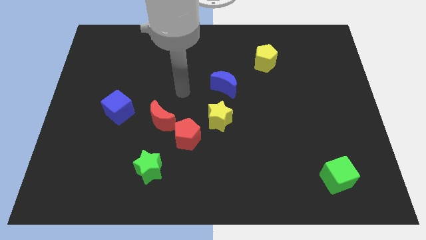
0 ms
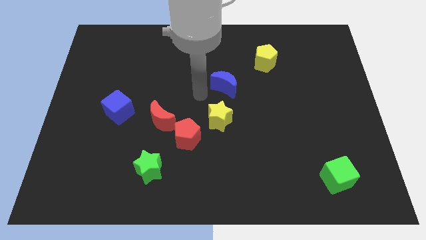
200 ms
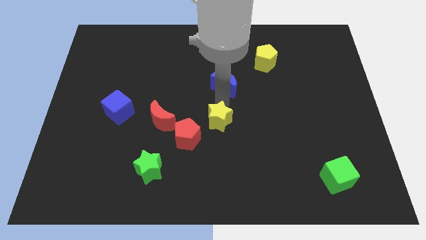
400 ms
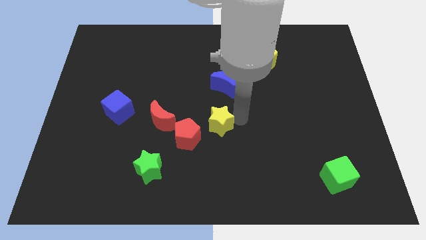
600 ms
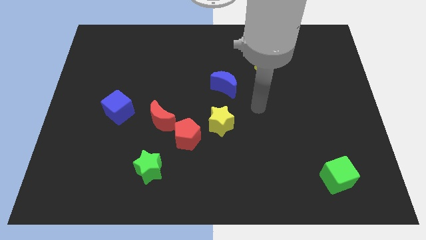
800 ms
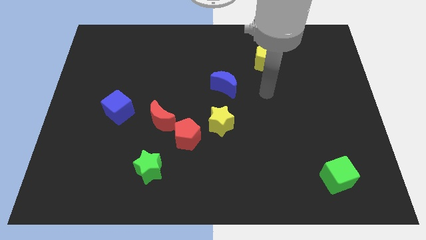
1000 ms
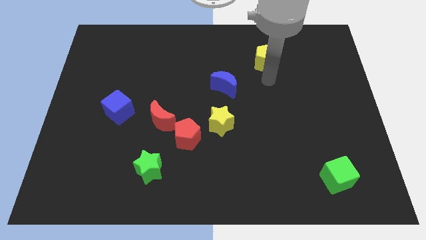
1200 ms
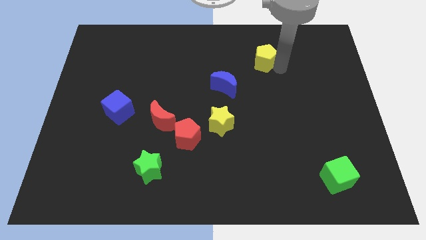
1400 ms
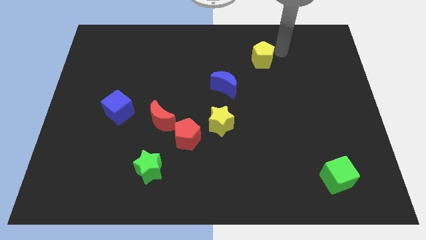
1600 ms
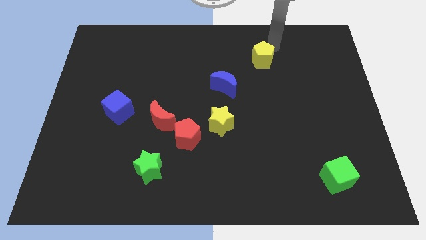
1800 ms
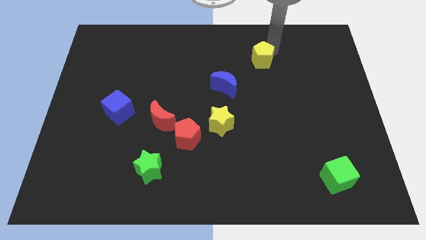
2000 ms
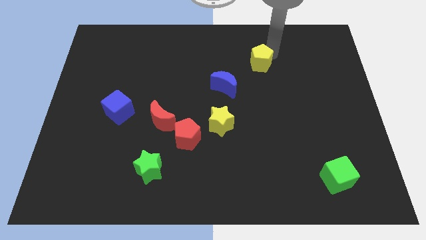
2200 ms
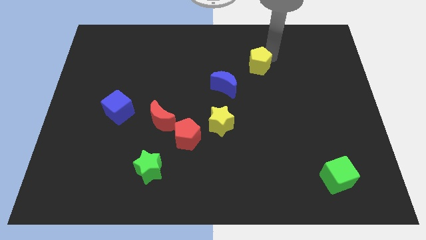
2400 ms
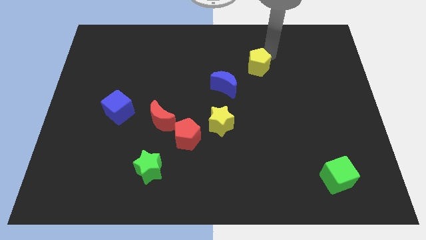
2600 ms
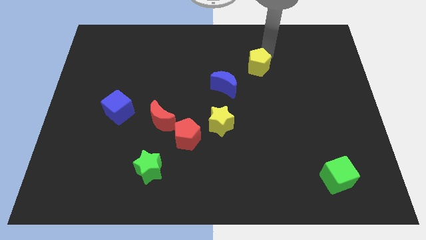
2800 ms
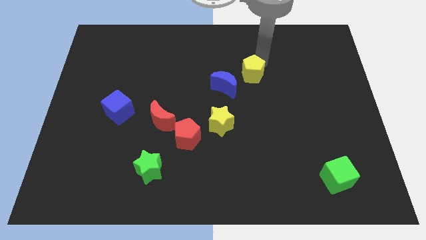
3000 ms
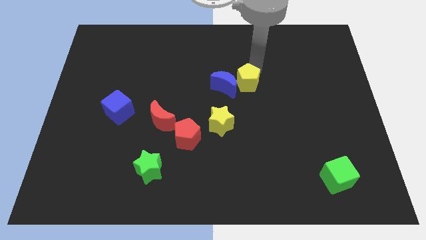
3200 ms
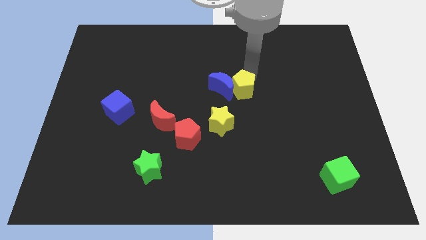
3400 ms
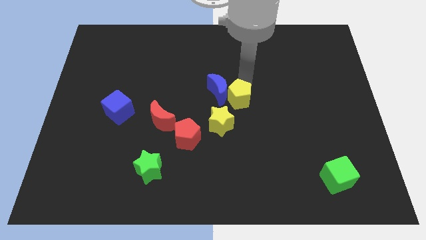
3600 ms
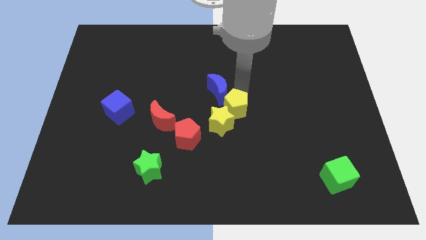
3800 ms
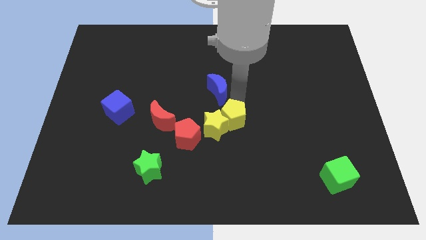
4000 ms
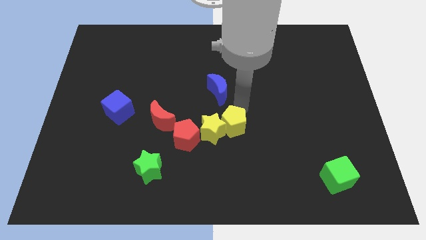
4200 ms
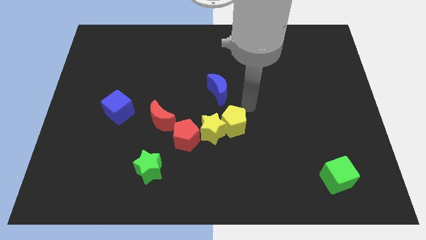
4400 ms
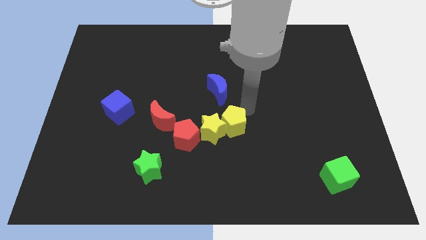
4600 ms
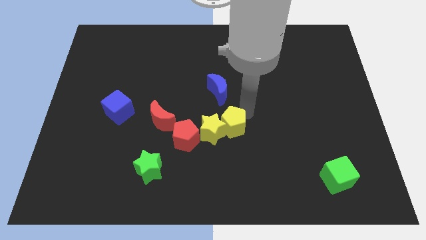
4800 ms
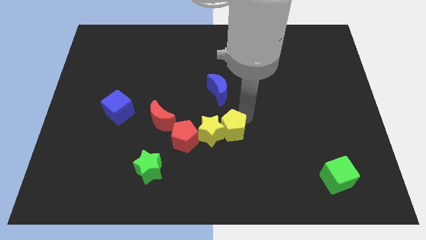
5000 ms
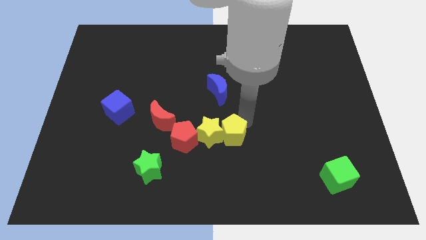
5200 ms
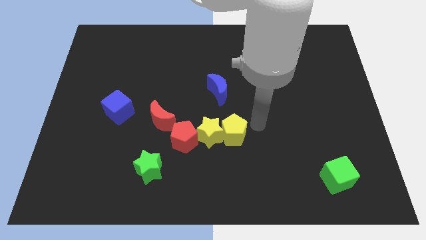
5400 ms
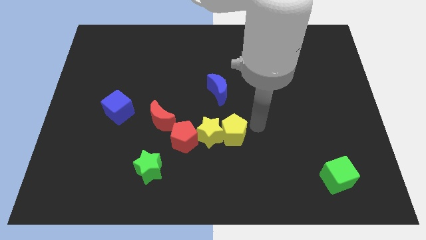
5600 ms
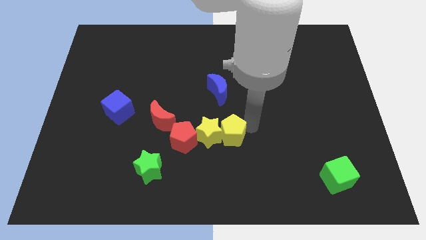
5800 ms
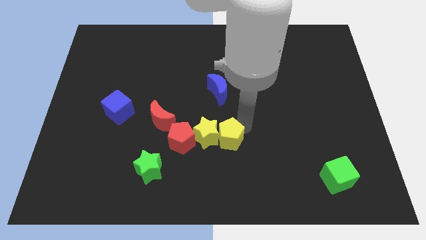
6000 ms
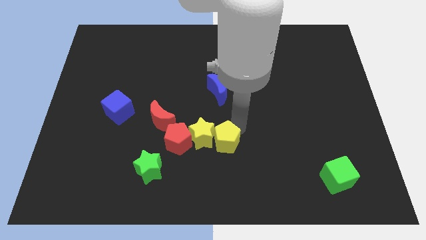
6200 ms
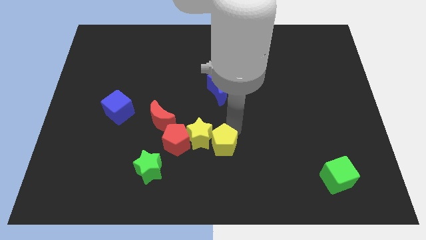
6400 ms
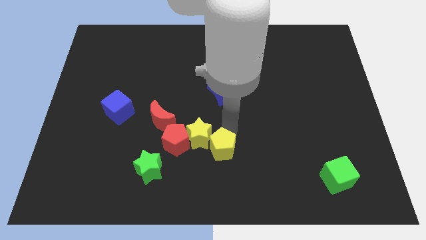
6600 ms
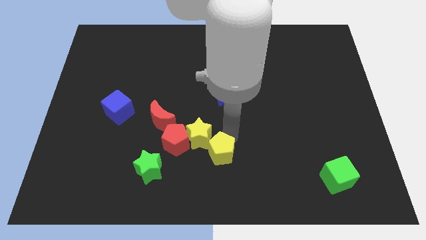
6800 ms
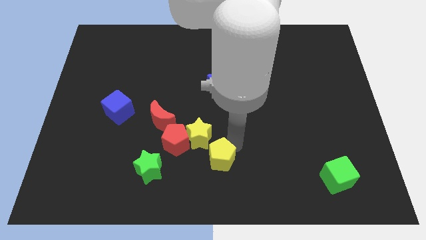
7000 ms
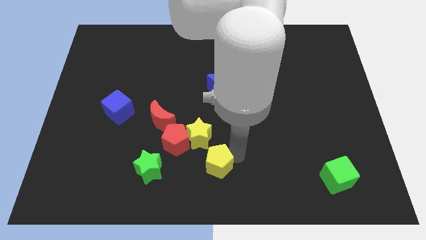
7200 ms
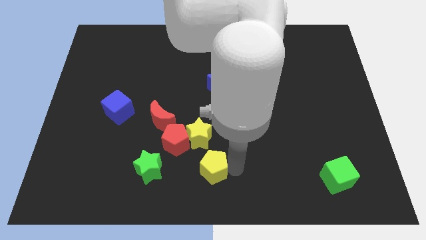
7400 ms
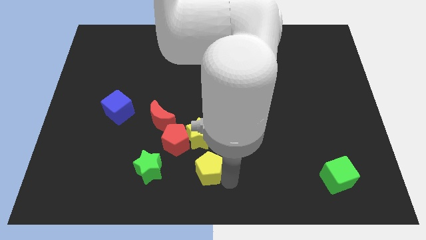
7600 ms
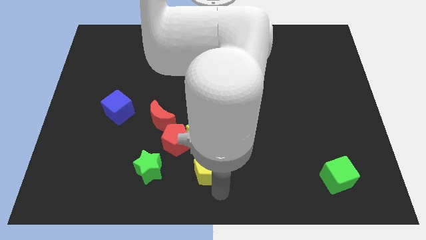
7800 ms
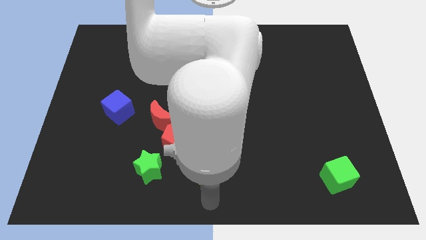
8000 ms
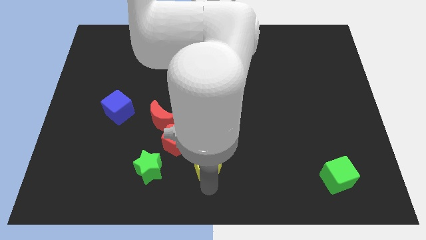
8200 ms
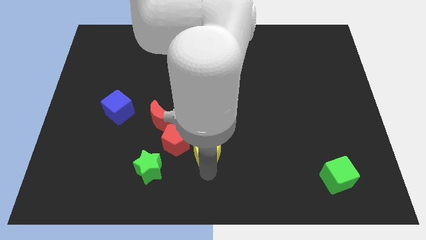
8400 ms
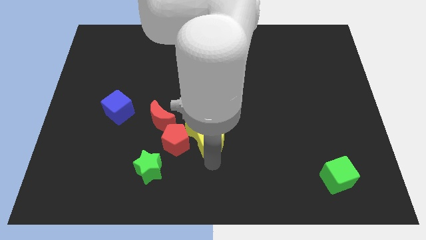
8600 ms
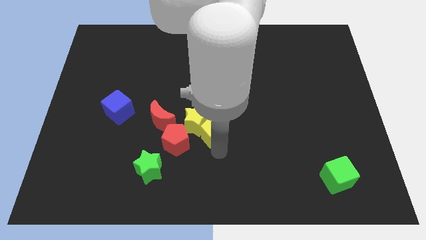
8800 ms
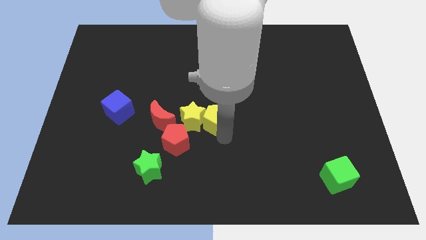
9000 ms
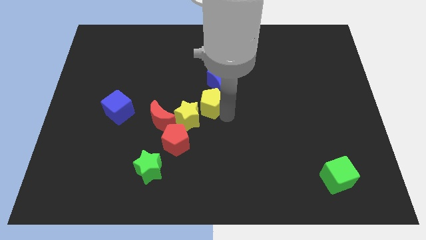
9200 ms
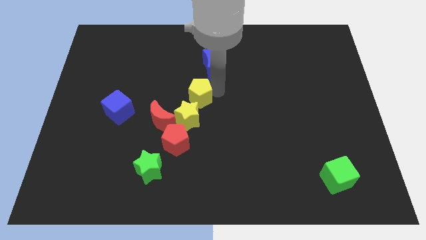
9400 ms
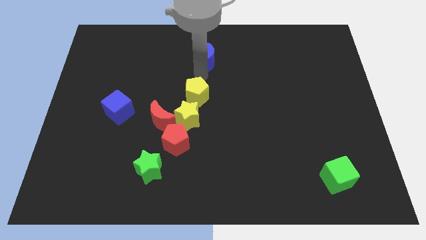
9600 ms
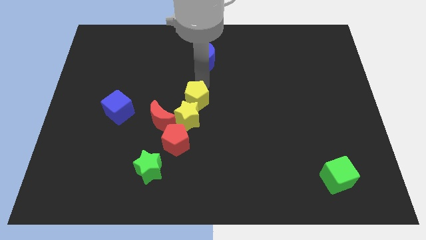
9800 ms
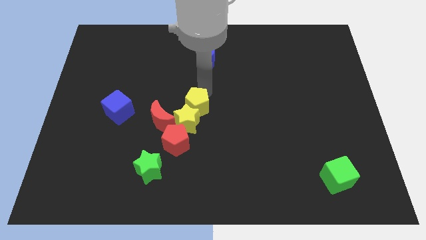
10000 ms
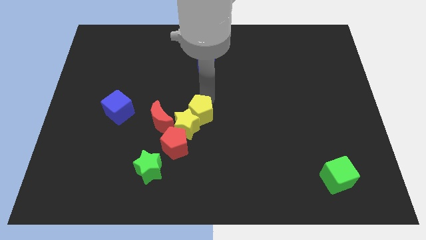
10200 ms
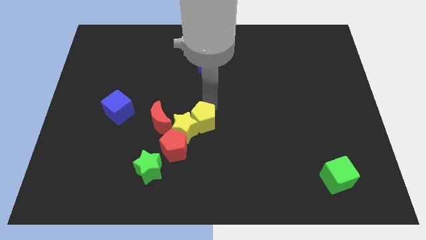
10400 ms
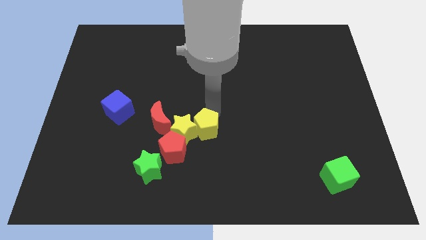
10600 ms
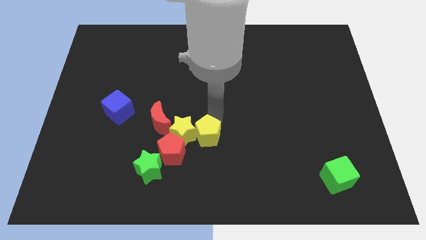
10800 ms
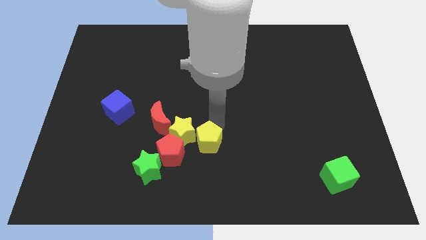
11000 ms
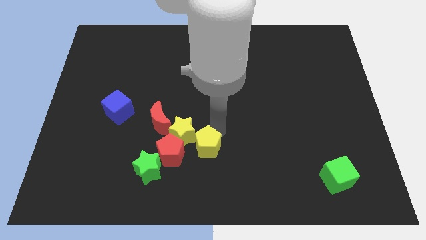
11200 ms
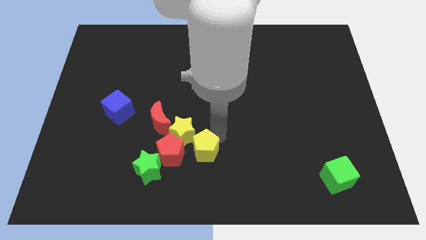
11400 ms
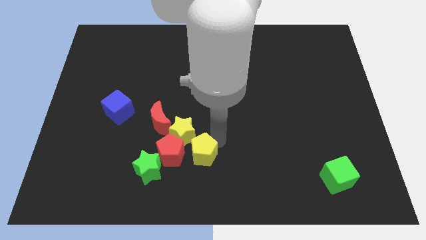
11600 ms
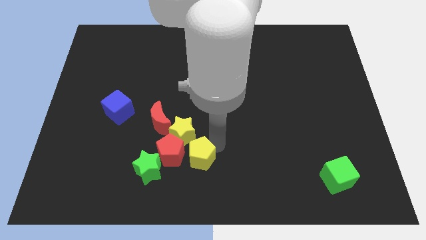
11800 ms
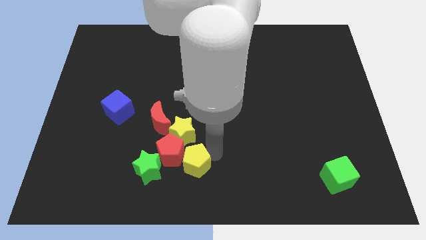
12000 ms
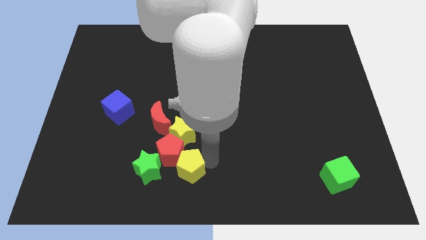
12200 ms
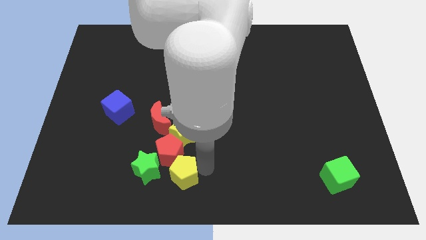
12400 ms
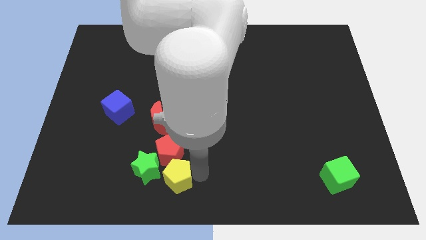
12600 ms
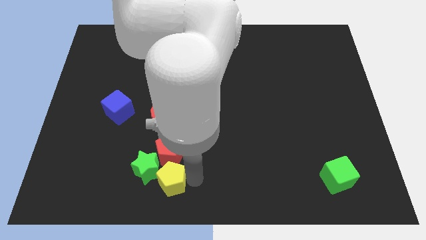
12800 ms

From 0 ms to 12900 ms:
slide the yellow pentagon close to the green star

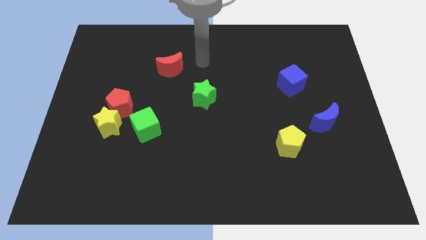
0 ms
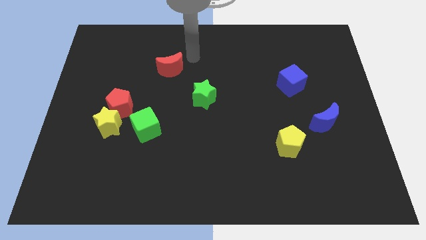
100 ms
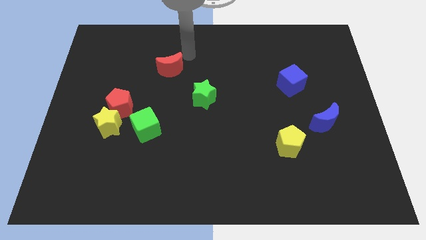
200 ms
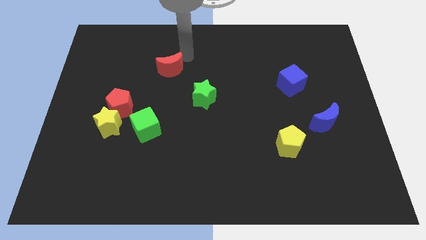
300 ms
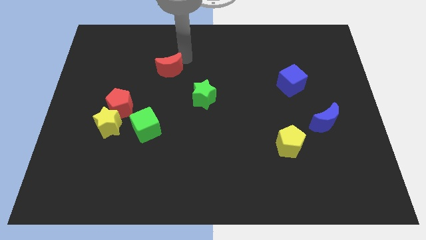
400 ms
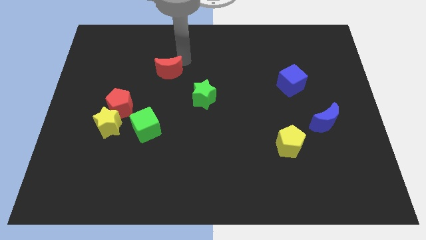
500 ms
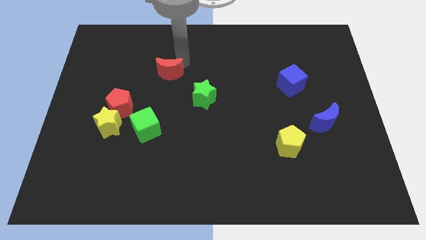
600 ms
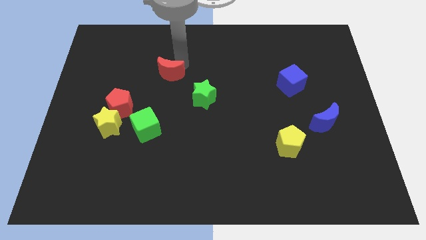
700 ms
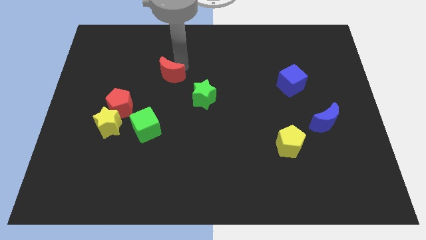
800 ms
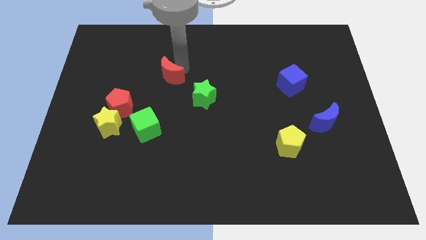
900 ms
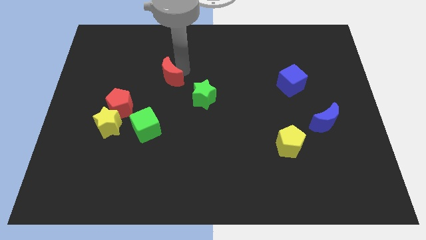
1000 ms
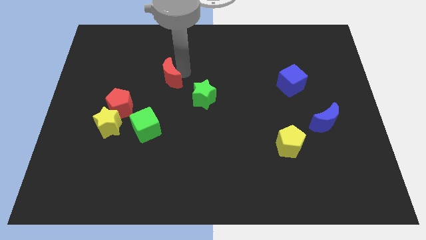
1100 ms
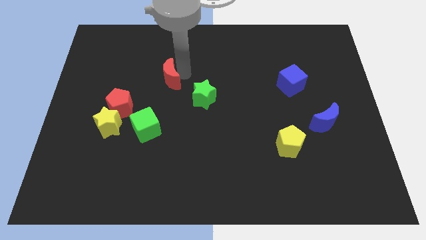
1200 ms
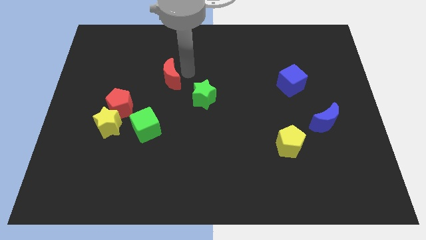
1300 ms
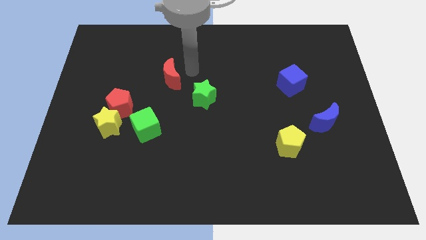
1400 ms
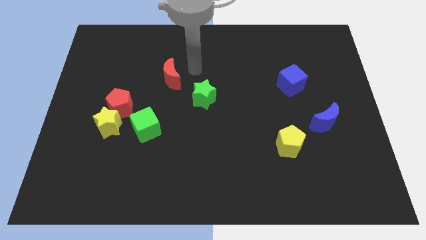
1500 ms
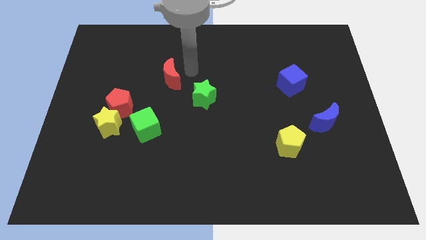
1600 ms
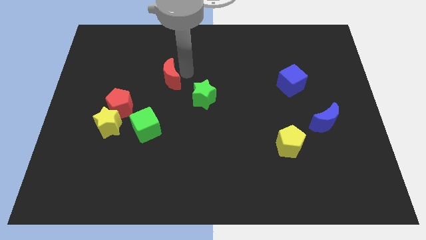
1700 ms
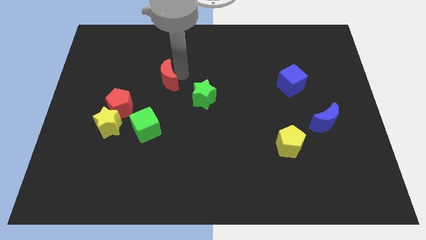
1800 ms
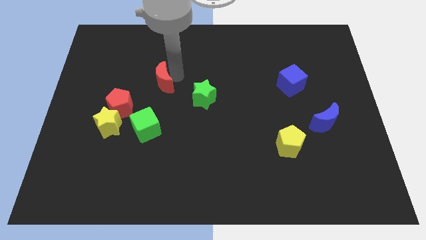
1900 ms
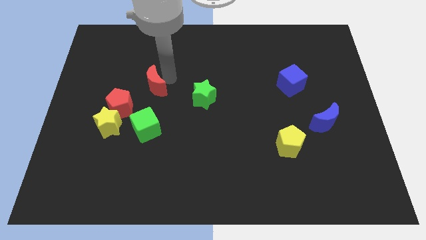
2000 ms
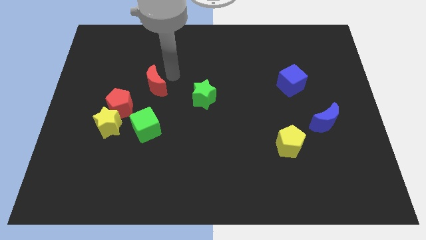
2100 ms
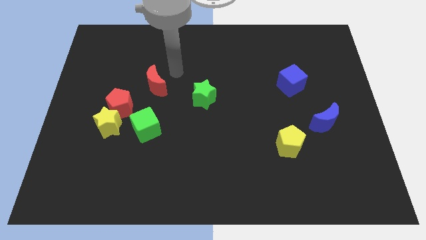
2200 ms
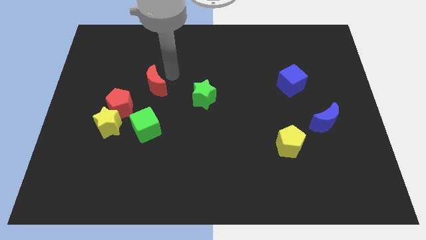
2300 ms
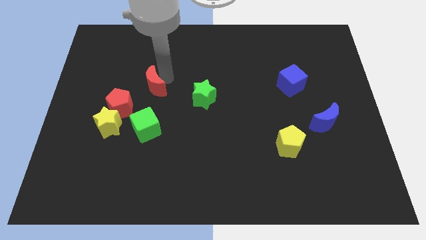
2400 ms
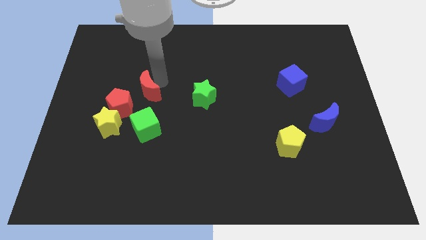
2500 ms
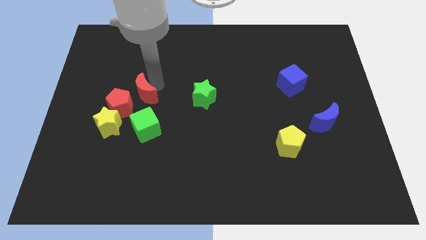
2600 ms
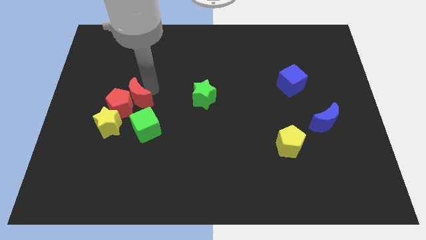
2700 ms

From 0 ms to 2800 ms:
put the red moon next to the red pentagon
